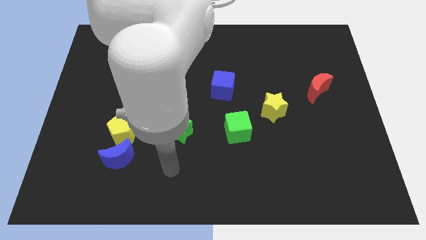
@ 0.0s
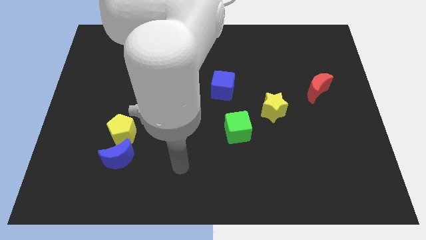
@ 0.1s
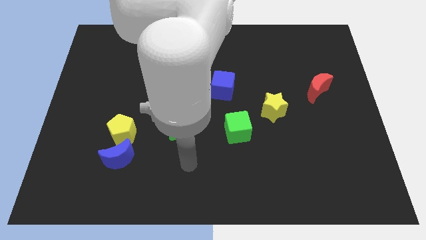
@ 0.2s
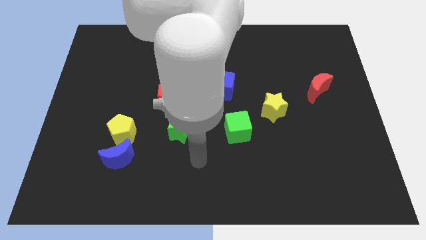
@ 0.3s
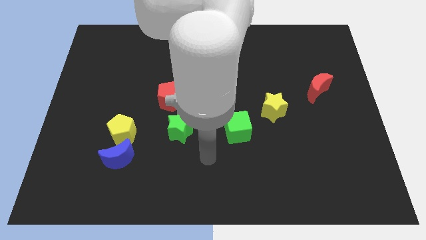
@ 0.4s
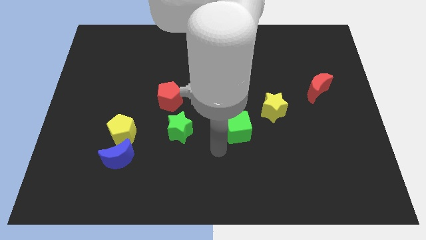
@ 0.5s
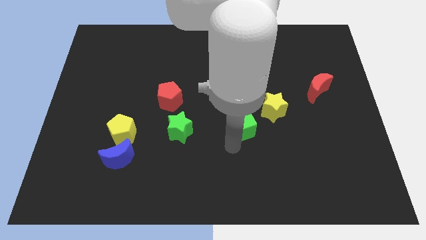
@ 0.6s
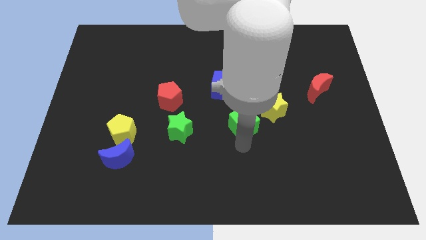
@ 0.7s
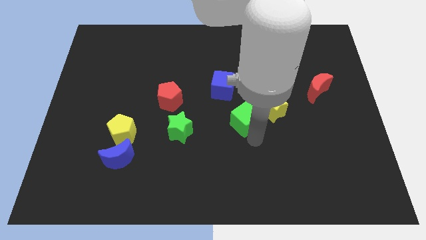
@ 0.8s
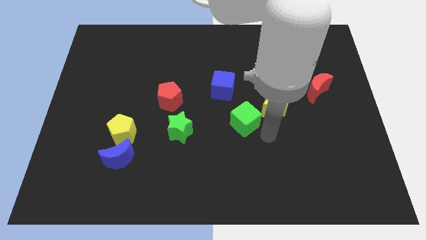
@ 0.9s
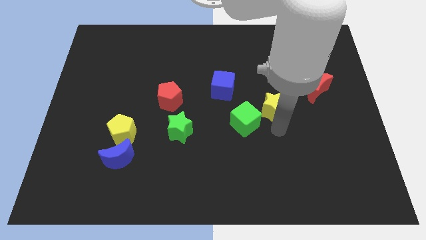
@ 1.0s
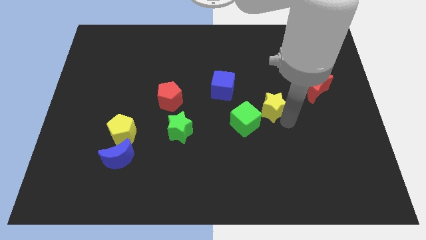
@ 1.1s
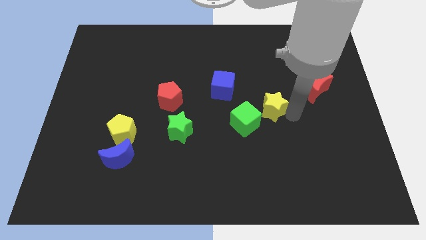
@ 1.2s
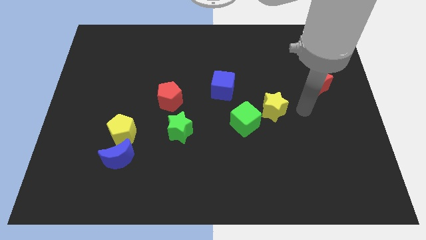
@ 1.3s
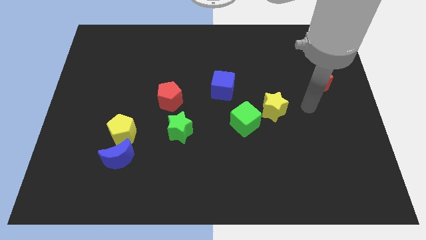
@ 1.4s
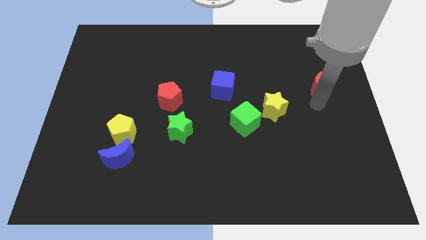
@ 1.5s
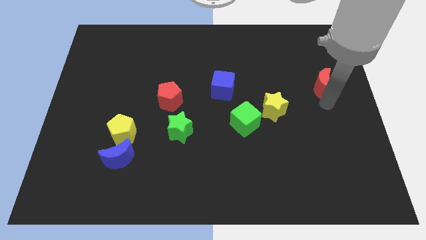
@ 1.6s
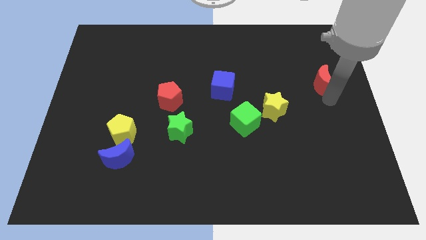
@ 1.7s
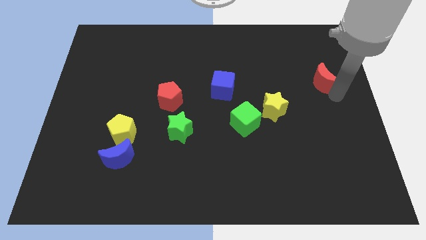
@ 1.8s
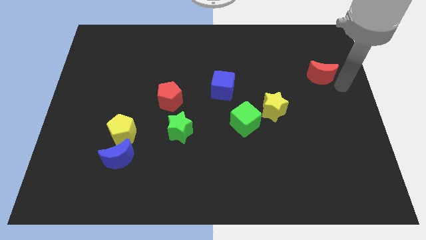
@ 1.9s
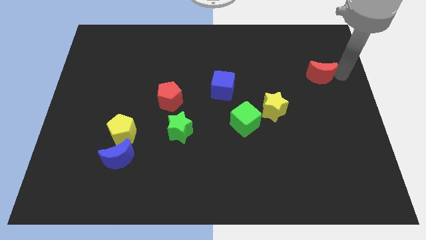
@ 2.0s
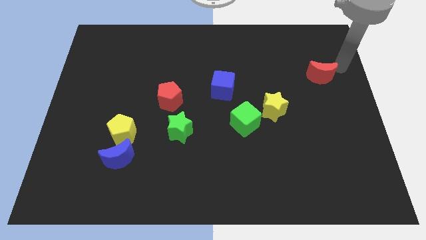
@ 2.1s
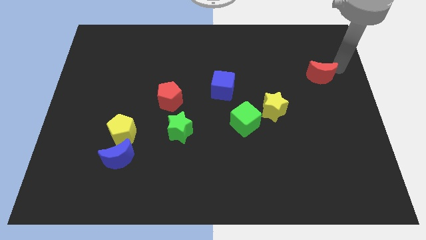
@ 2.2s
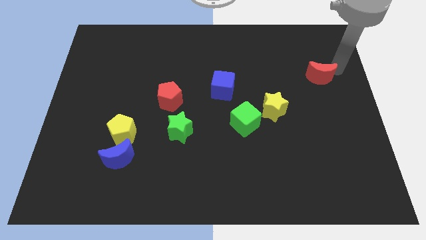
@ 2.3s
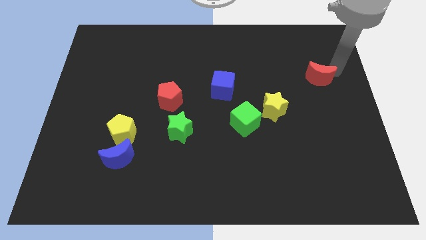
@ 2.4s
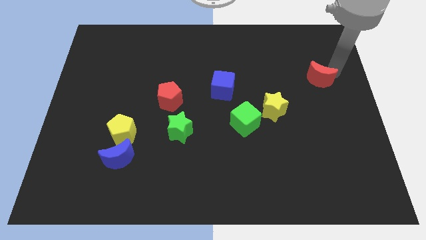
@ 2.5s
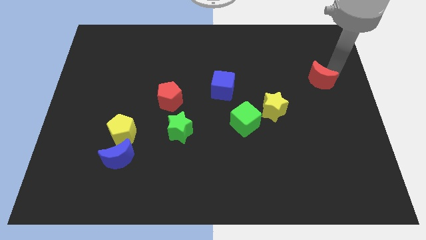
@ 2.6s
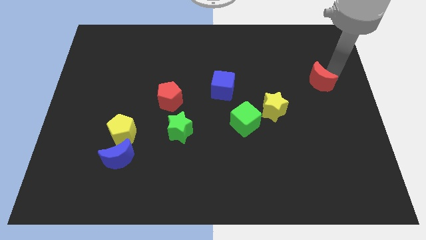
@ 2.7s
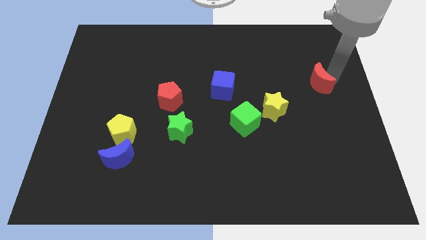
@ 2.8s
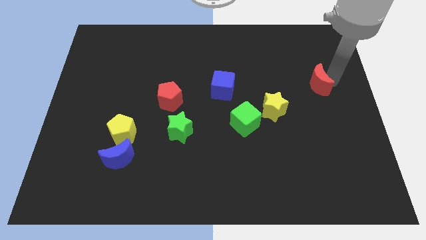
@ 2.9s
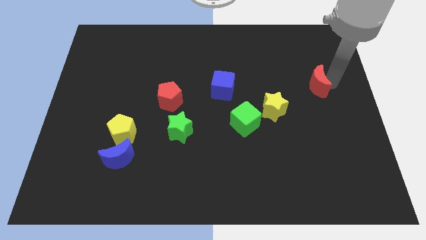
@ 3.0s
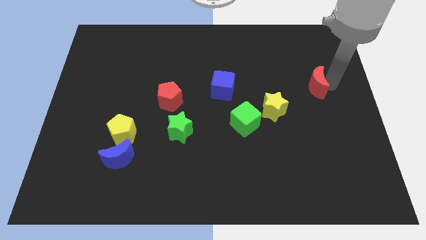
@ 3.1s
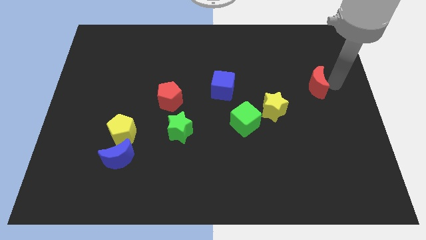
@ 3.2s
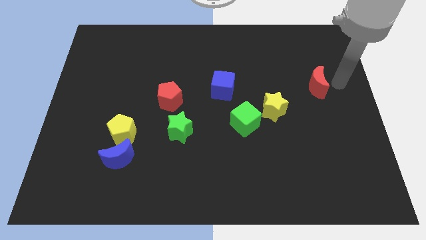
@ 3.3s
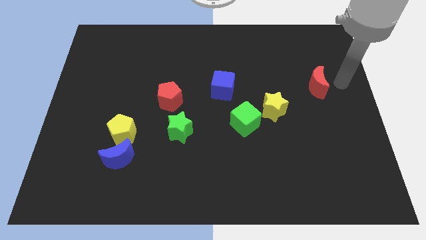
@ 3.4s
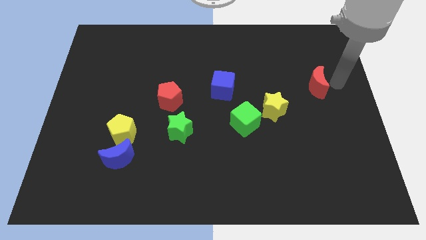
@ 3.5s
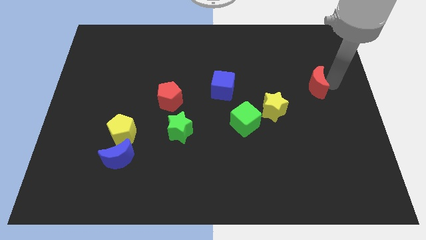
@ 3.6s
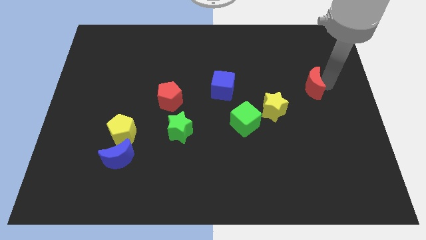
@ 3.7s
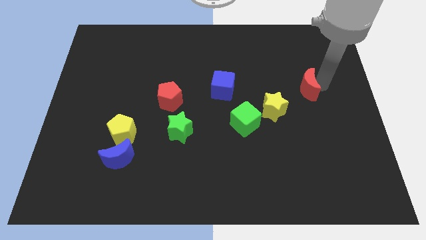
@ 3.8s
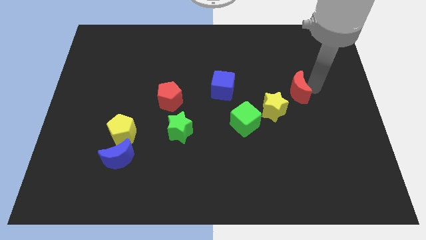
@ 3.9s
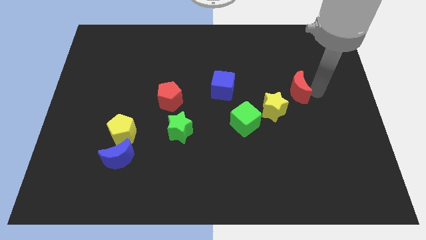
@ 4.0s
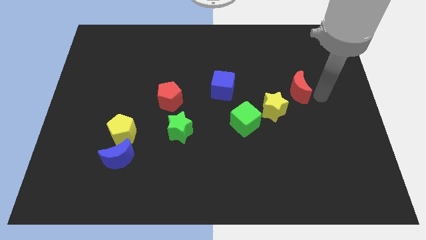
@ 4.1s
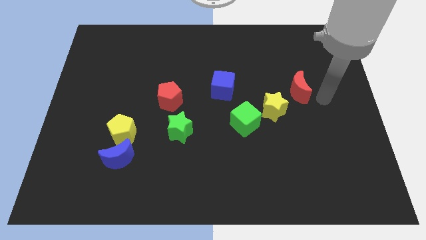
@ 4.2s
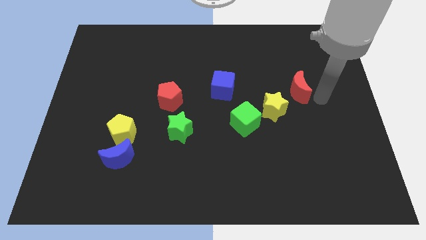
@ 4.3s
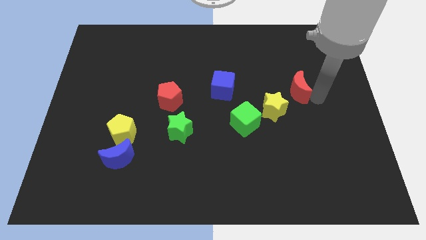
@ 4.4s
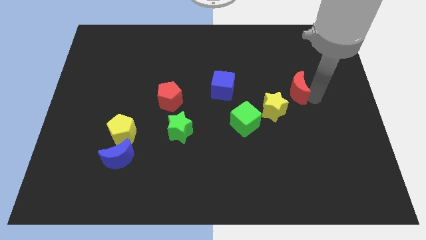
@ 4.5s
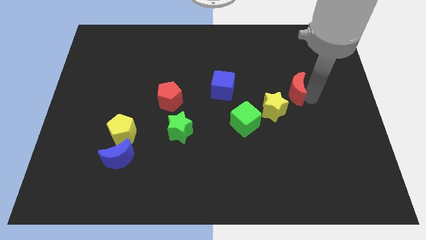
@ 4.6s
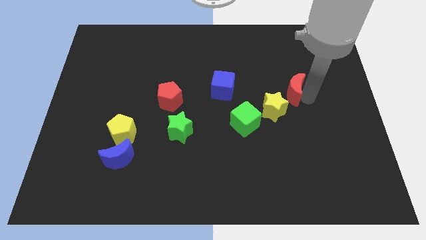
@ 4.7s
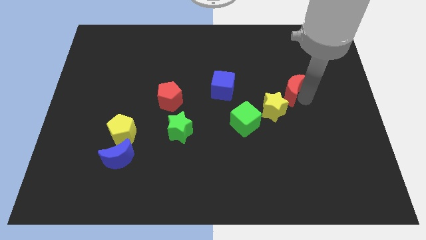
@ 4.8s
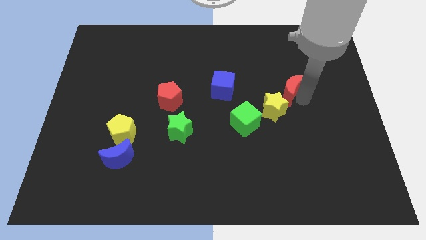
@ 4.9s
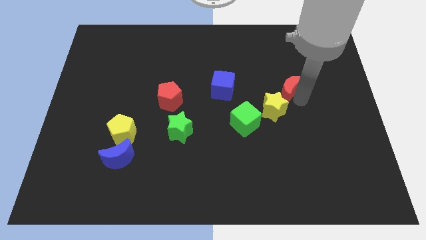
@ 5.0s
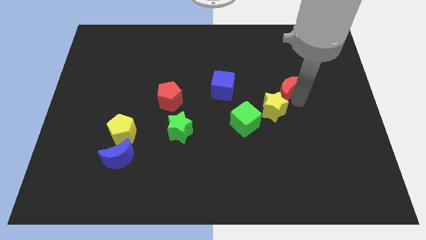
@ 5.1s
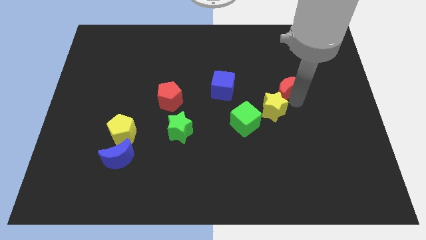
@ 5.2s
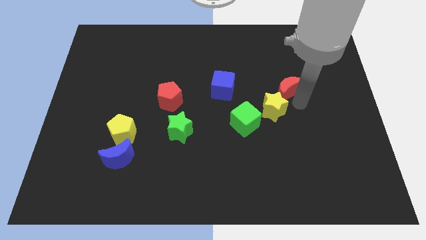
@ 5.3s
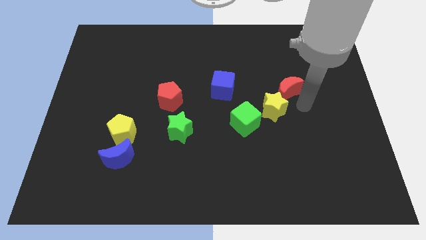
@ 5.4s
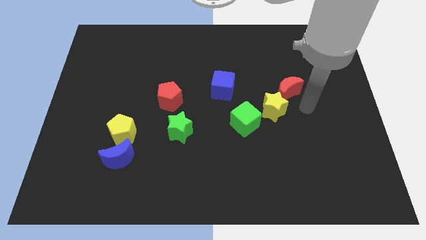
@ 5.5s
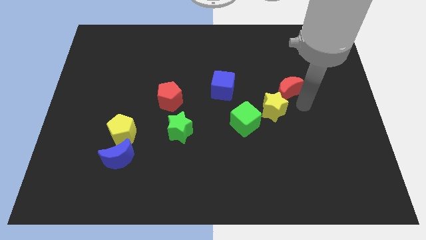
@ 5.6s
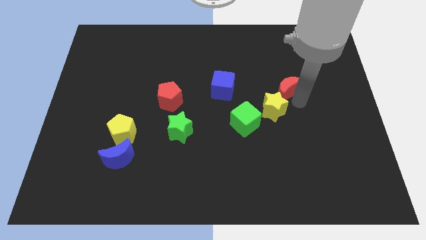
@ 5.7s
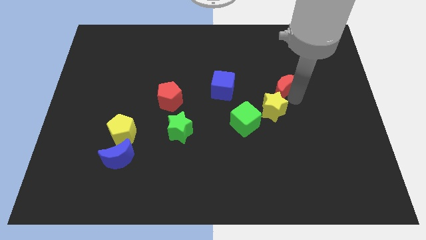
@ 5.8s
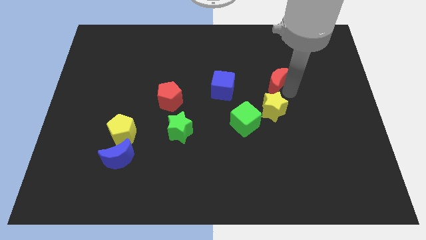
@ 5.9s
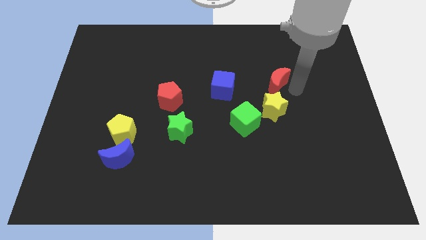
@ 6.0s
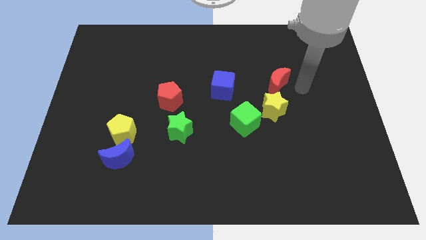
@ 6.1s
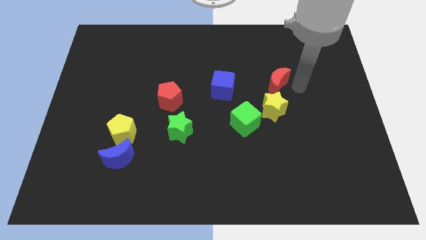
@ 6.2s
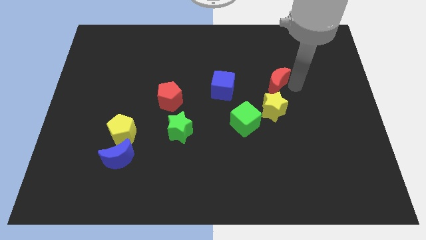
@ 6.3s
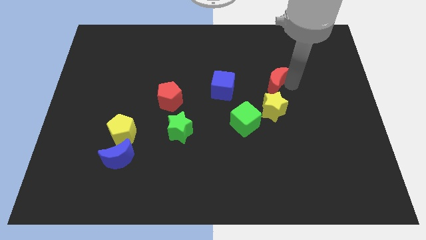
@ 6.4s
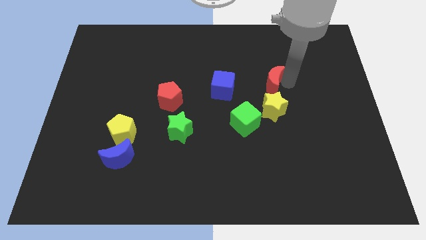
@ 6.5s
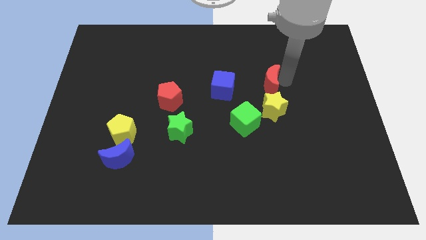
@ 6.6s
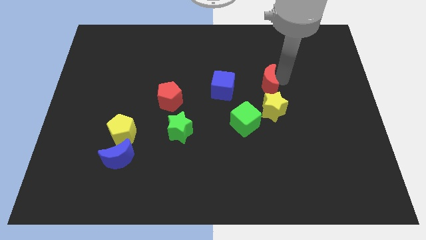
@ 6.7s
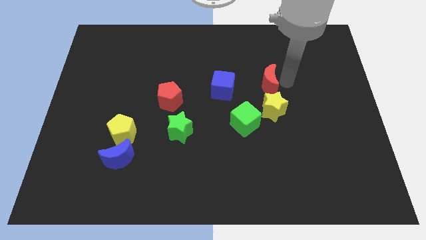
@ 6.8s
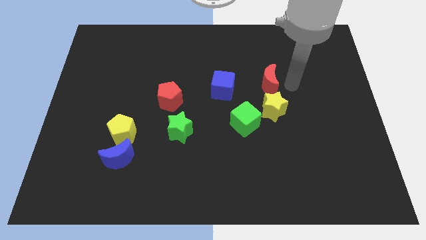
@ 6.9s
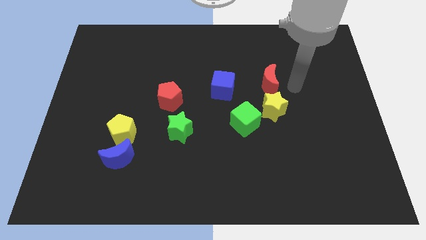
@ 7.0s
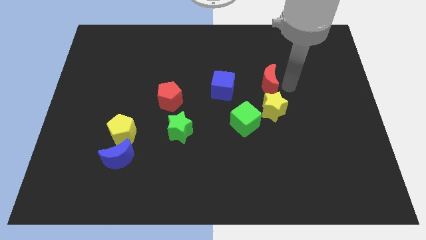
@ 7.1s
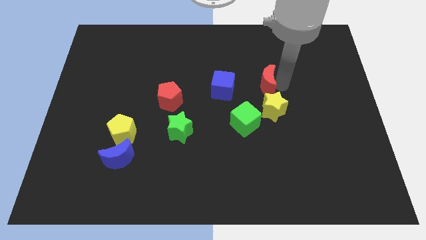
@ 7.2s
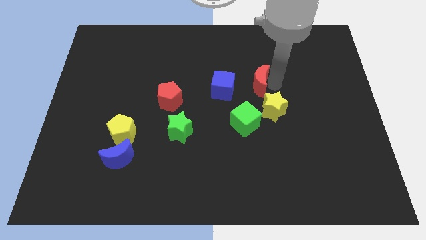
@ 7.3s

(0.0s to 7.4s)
push the red moon above the green cube
